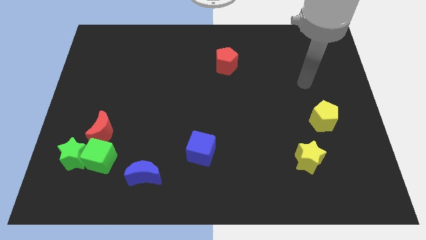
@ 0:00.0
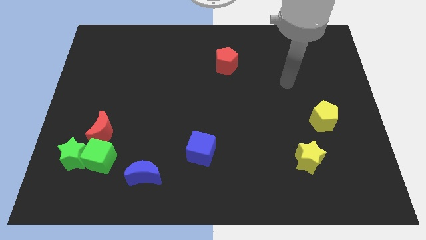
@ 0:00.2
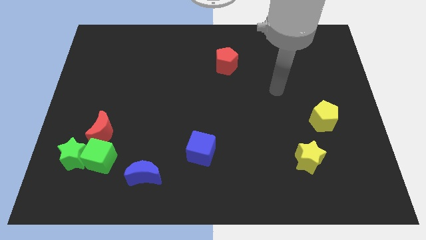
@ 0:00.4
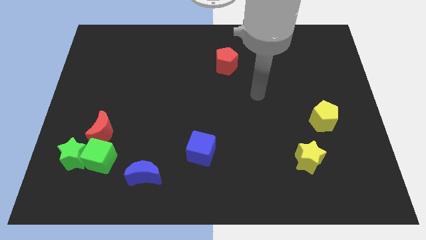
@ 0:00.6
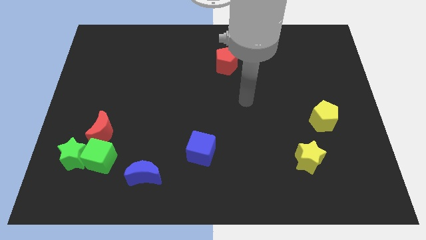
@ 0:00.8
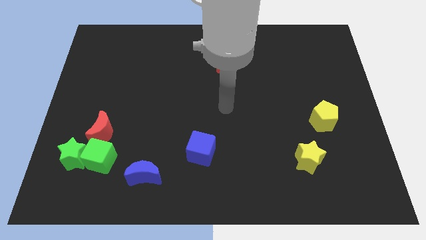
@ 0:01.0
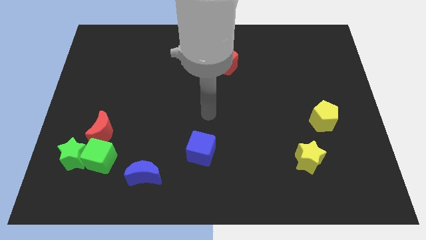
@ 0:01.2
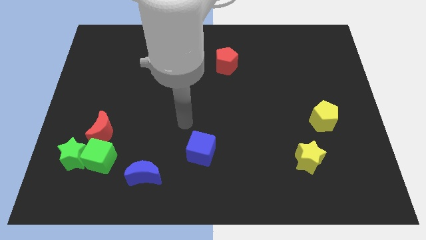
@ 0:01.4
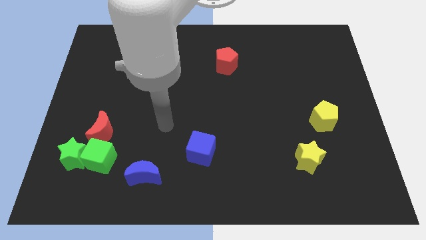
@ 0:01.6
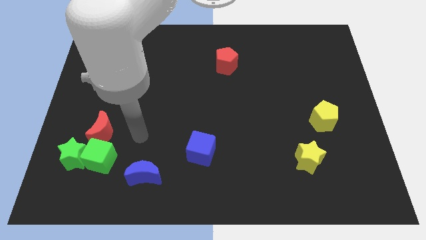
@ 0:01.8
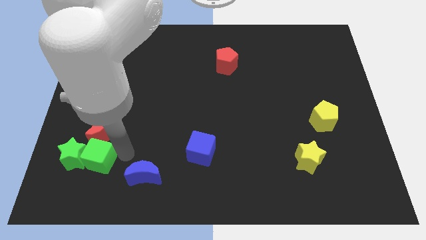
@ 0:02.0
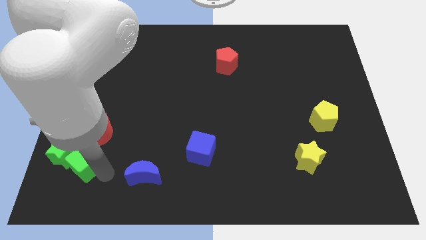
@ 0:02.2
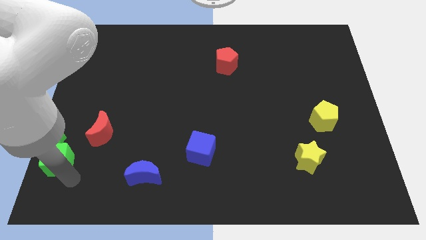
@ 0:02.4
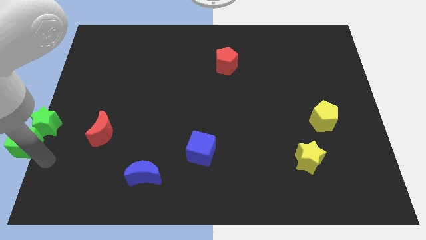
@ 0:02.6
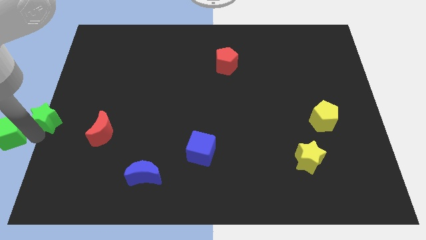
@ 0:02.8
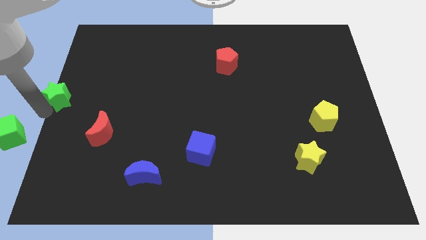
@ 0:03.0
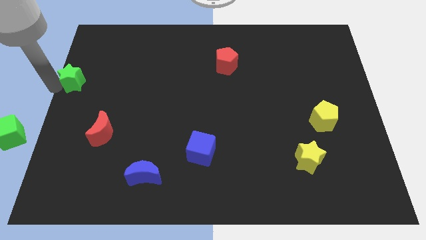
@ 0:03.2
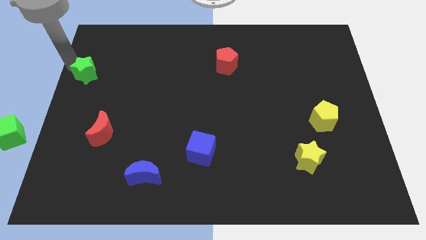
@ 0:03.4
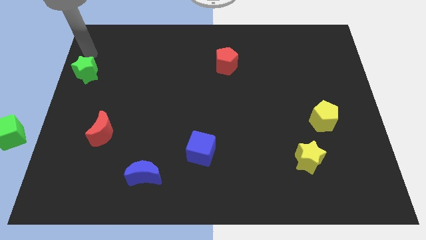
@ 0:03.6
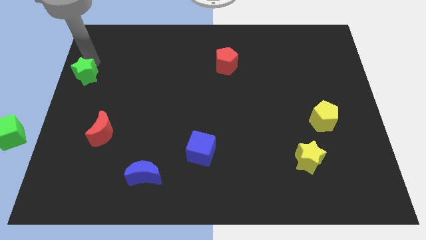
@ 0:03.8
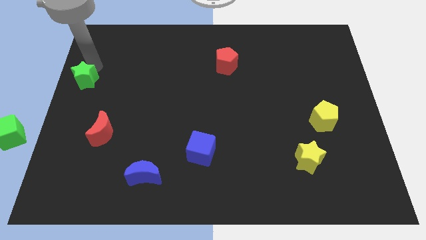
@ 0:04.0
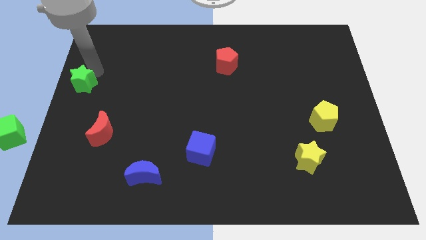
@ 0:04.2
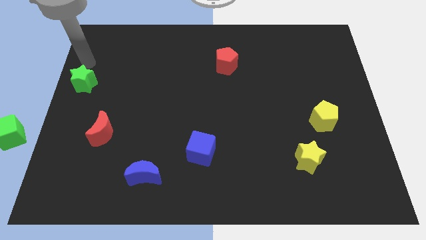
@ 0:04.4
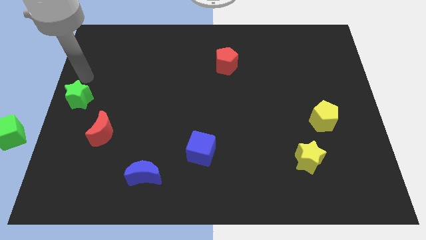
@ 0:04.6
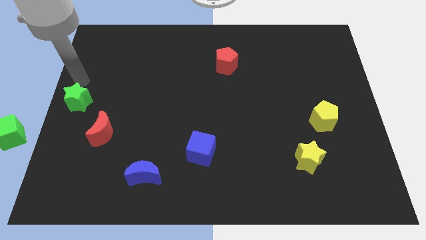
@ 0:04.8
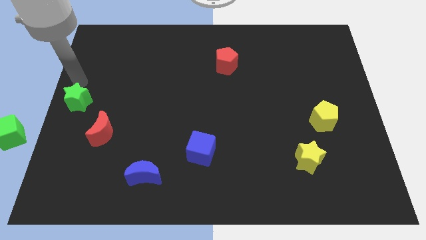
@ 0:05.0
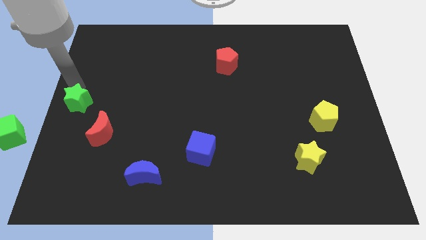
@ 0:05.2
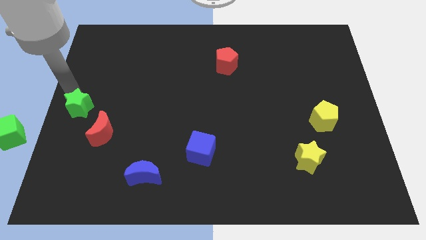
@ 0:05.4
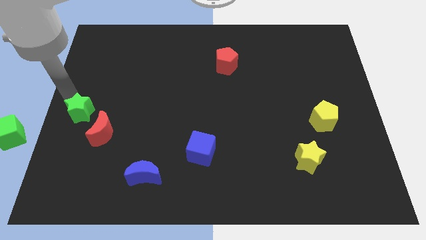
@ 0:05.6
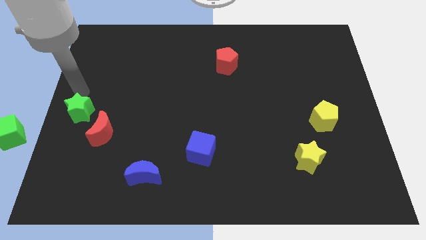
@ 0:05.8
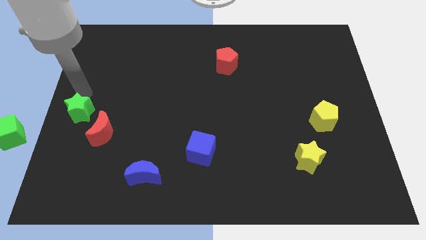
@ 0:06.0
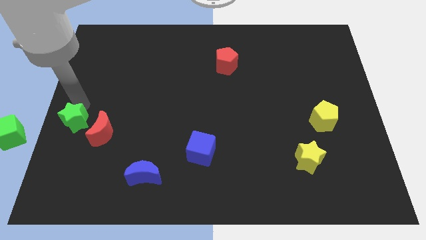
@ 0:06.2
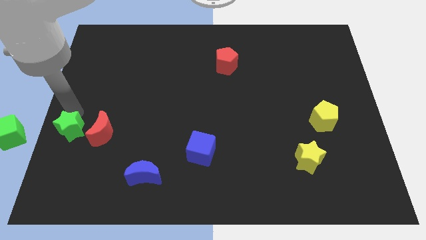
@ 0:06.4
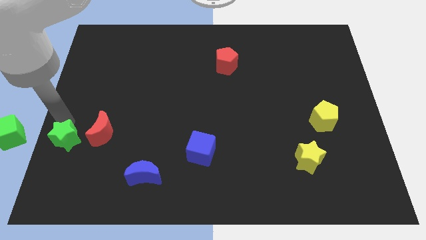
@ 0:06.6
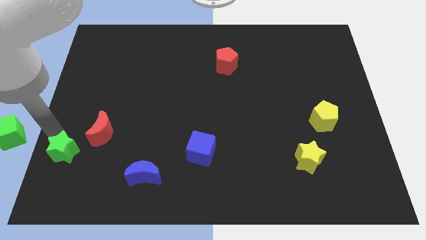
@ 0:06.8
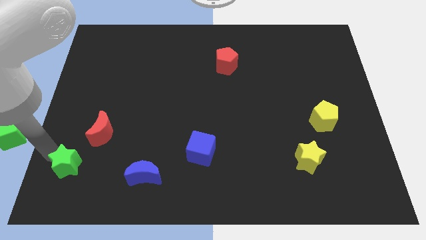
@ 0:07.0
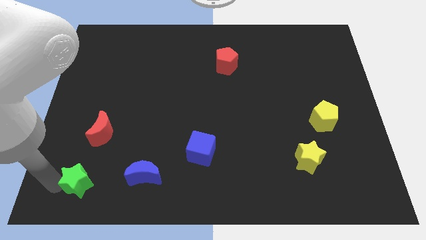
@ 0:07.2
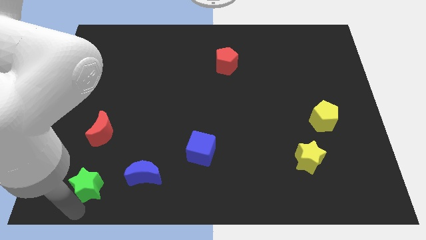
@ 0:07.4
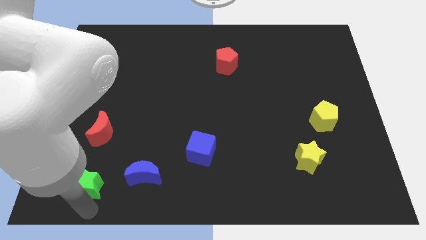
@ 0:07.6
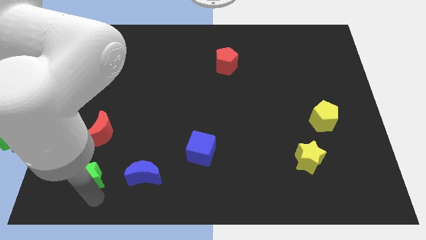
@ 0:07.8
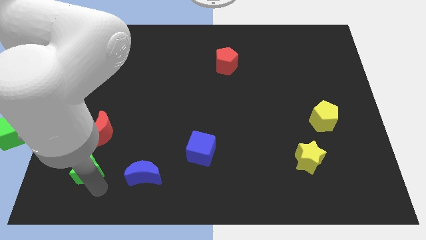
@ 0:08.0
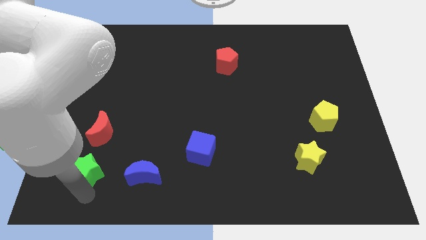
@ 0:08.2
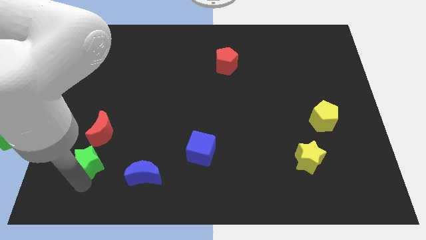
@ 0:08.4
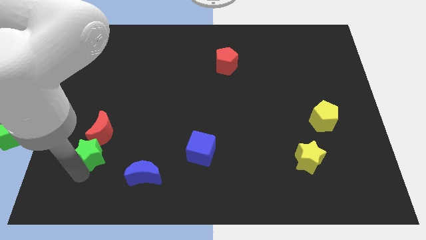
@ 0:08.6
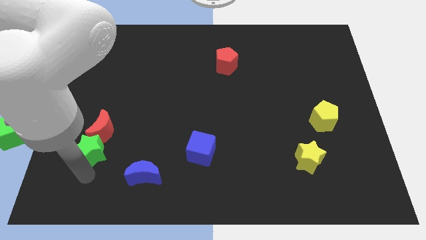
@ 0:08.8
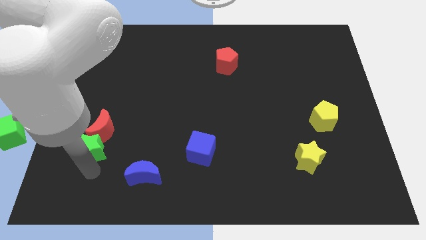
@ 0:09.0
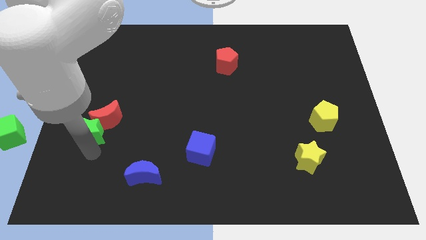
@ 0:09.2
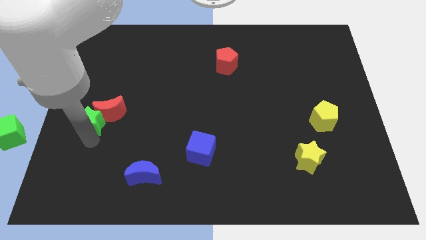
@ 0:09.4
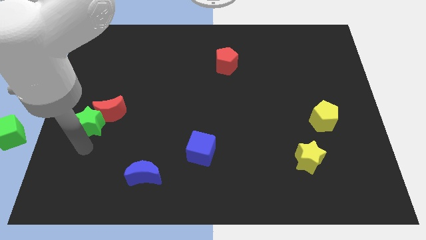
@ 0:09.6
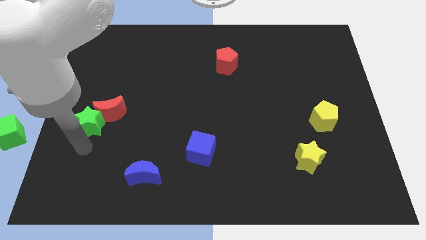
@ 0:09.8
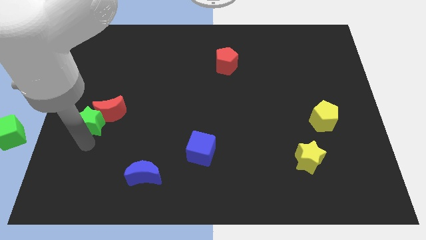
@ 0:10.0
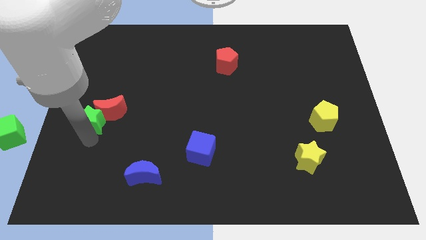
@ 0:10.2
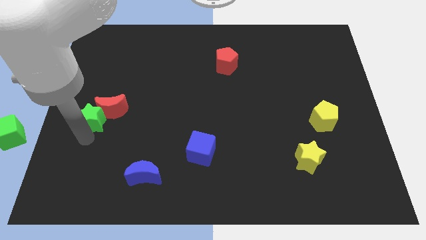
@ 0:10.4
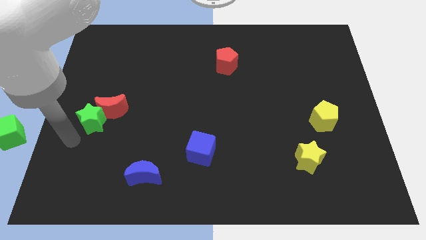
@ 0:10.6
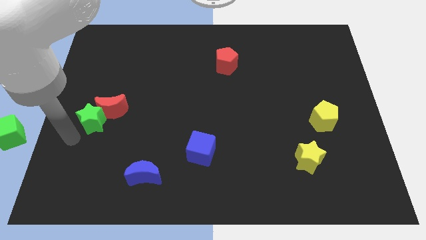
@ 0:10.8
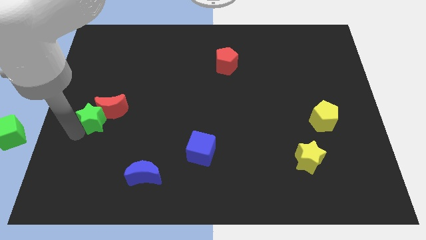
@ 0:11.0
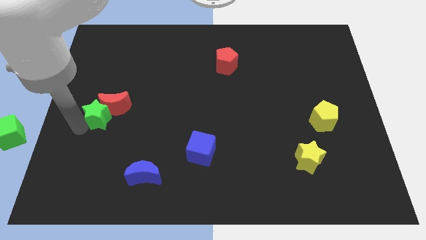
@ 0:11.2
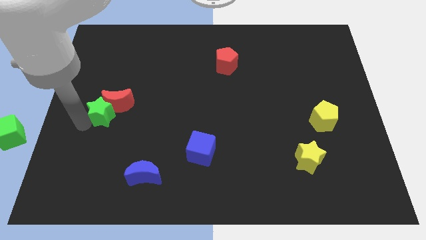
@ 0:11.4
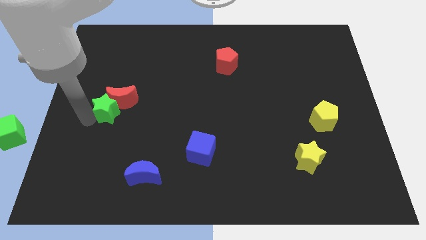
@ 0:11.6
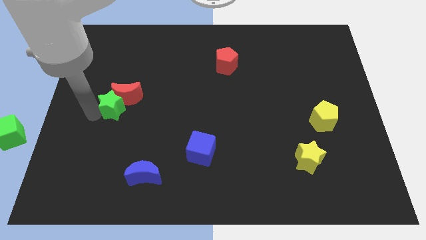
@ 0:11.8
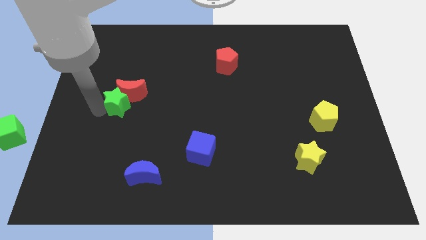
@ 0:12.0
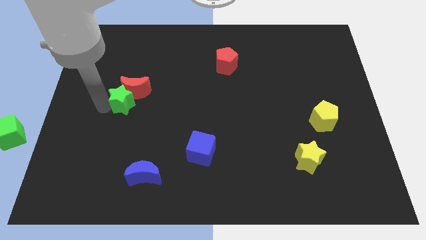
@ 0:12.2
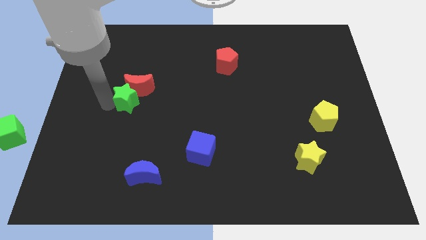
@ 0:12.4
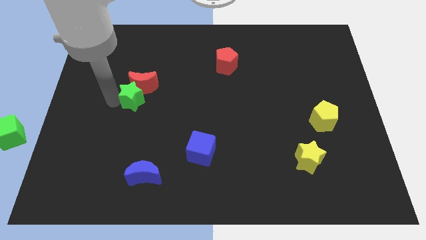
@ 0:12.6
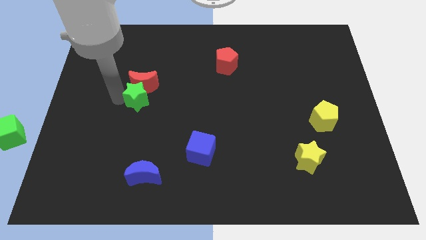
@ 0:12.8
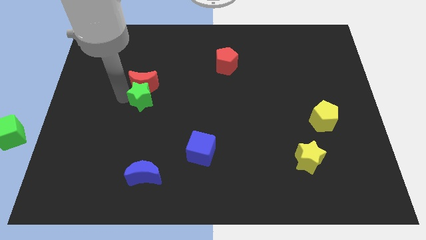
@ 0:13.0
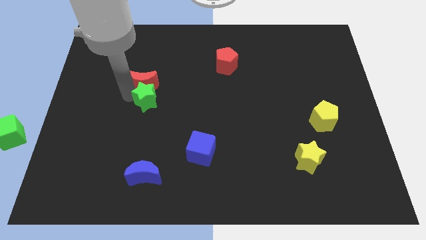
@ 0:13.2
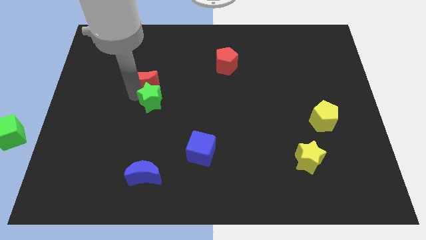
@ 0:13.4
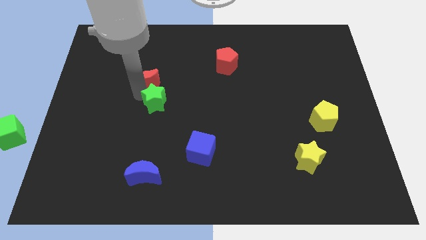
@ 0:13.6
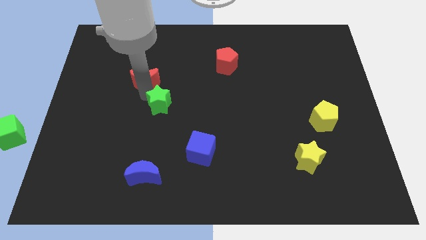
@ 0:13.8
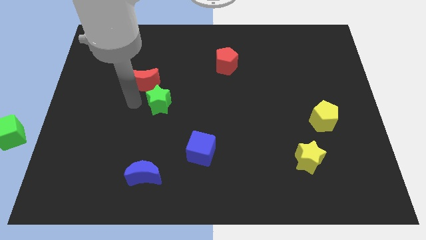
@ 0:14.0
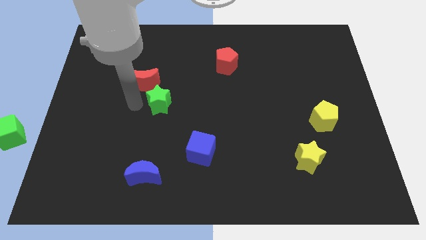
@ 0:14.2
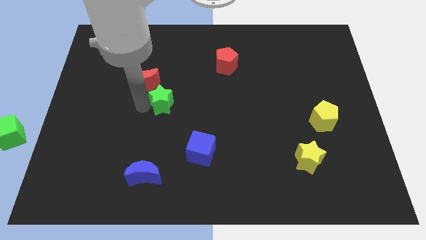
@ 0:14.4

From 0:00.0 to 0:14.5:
move the green star to the center

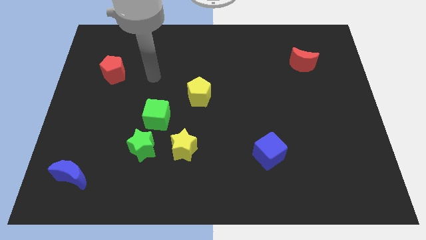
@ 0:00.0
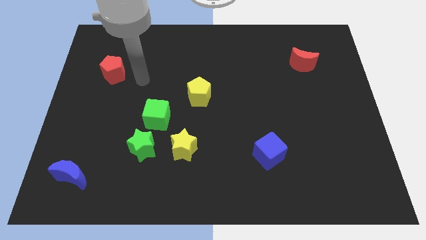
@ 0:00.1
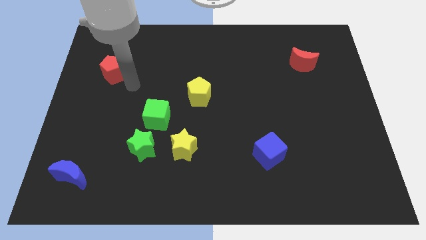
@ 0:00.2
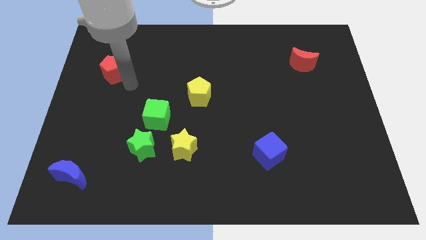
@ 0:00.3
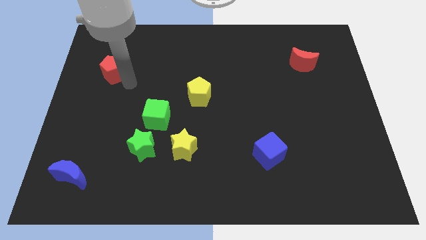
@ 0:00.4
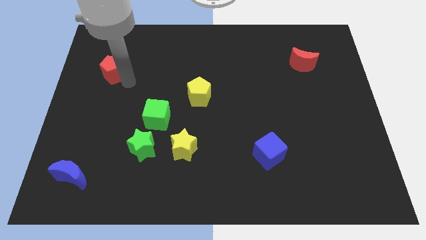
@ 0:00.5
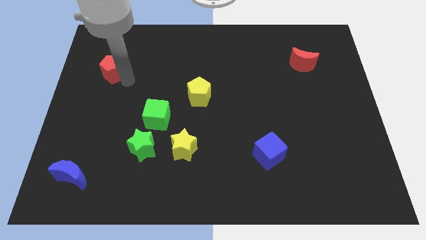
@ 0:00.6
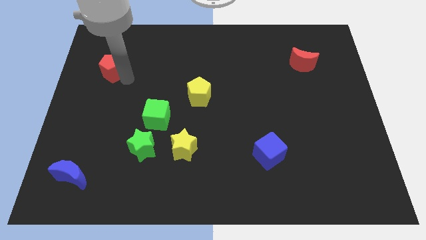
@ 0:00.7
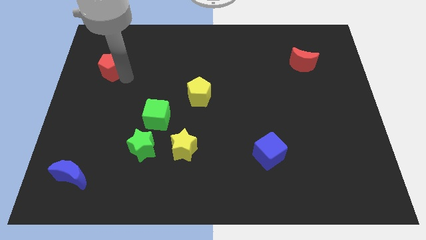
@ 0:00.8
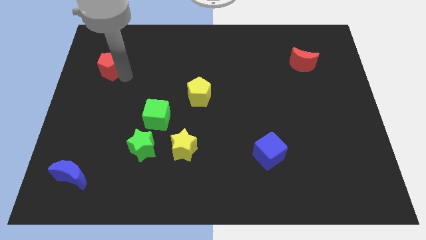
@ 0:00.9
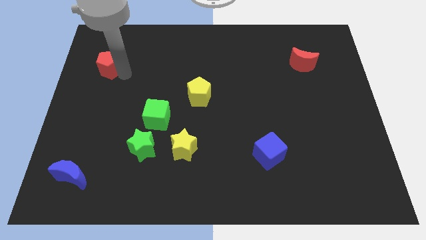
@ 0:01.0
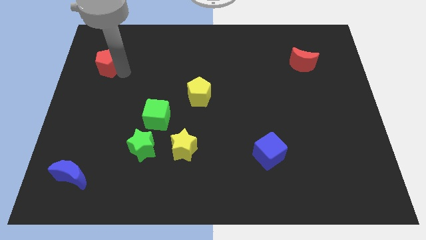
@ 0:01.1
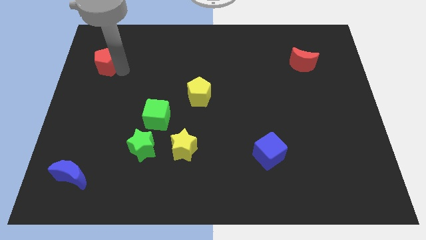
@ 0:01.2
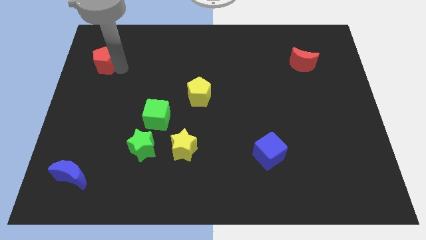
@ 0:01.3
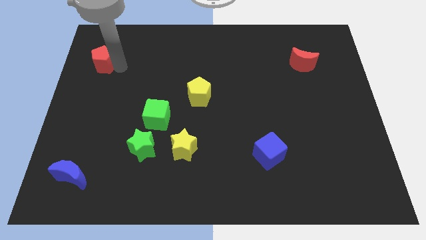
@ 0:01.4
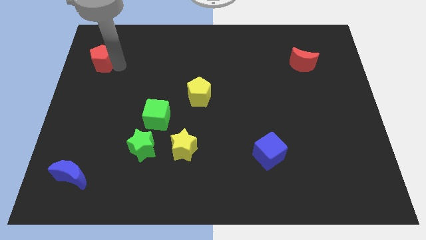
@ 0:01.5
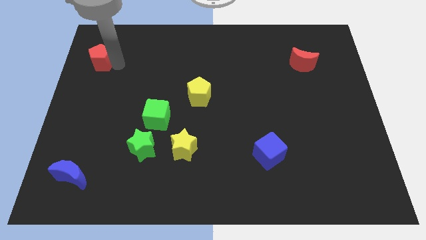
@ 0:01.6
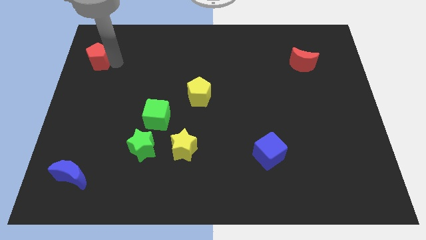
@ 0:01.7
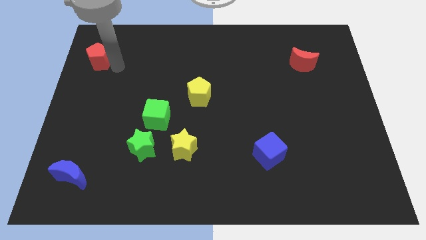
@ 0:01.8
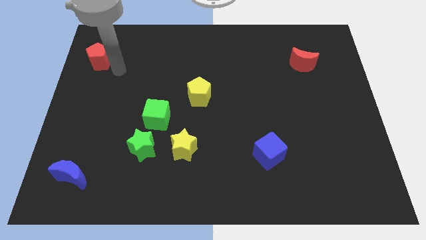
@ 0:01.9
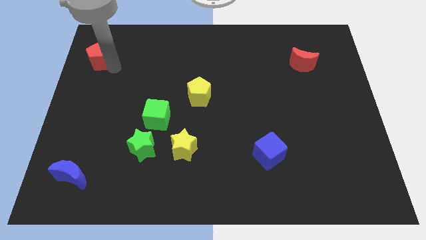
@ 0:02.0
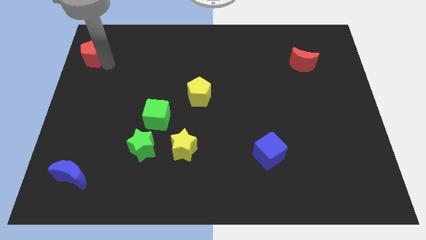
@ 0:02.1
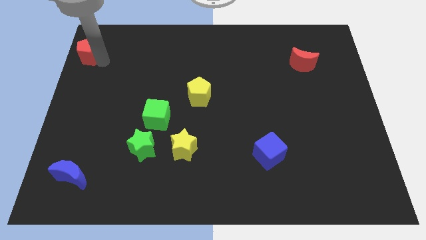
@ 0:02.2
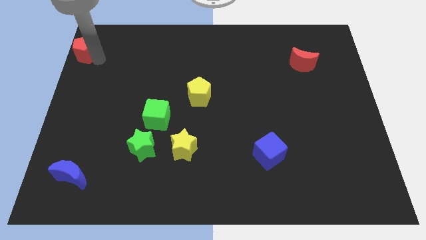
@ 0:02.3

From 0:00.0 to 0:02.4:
push the red pentagon to the top left
